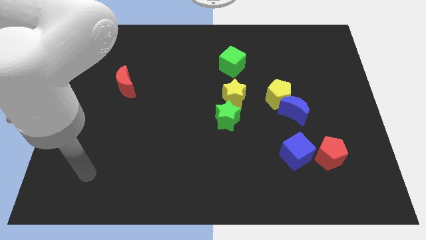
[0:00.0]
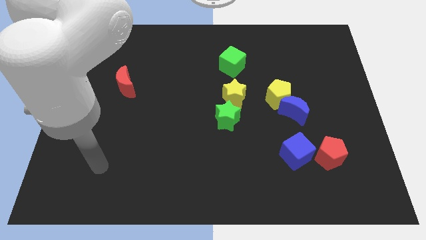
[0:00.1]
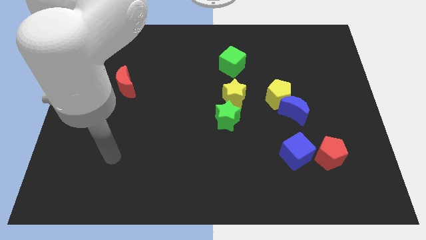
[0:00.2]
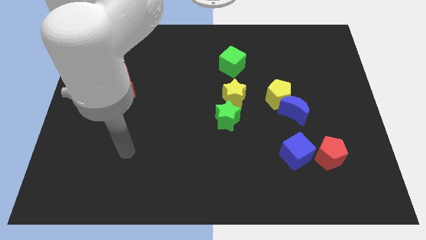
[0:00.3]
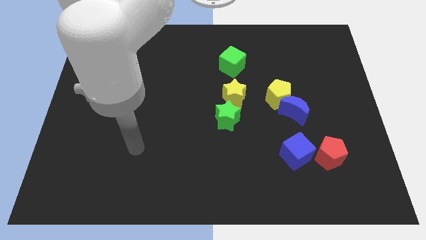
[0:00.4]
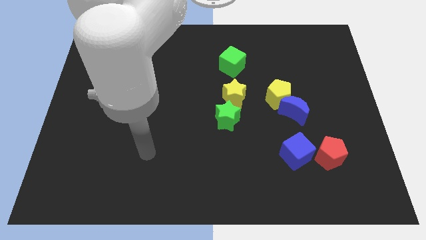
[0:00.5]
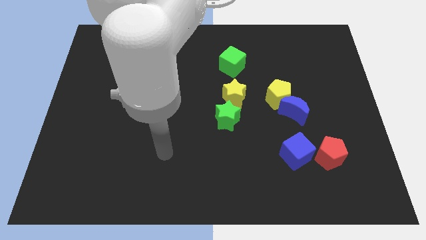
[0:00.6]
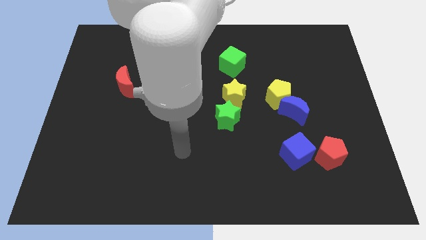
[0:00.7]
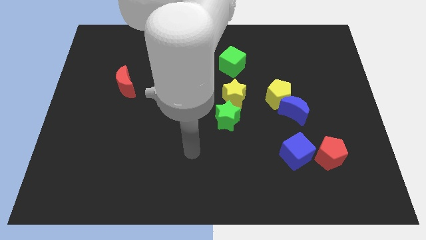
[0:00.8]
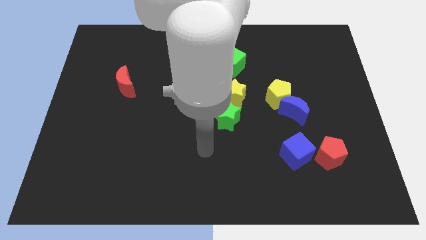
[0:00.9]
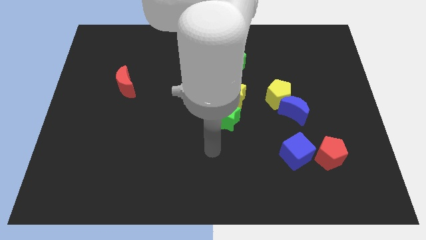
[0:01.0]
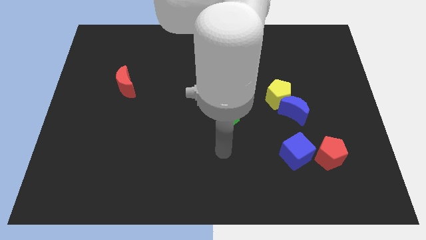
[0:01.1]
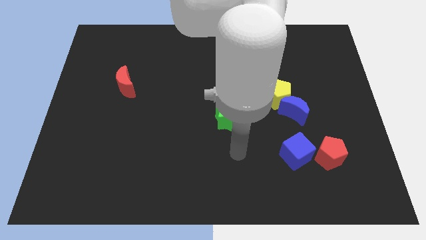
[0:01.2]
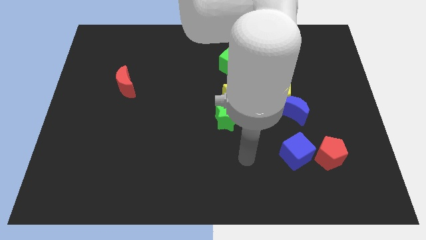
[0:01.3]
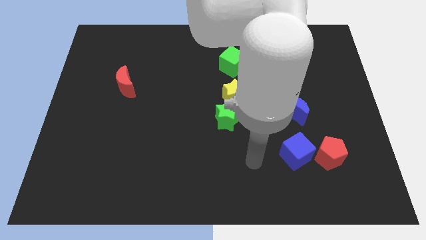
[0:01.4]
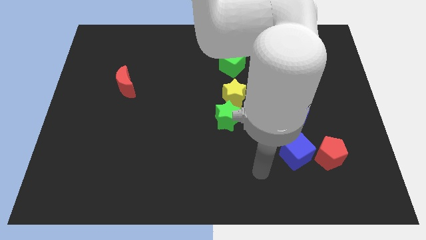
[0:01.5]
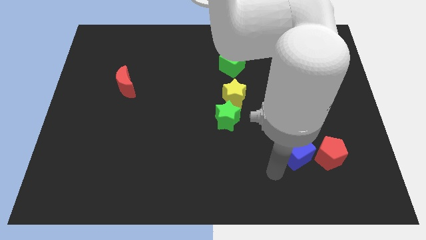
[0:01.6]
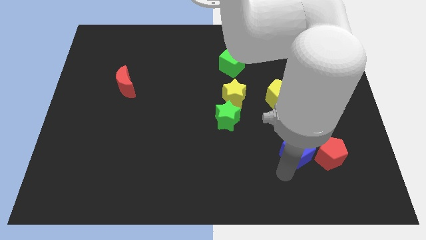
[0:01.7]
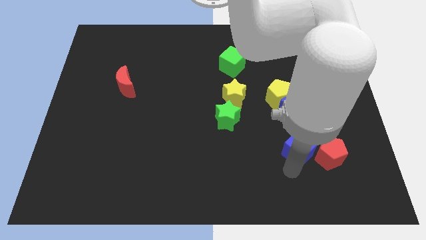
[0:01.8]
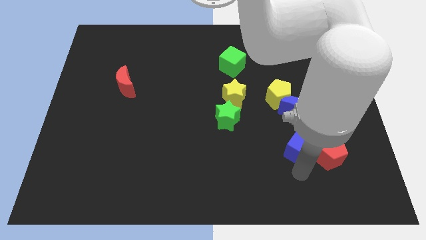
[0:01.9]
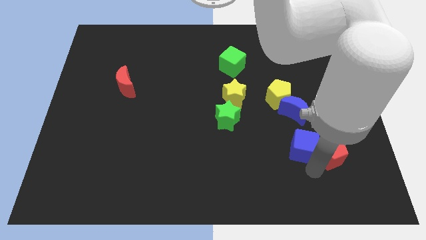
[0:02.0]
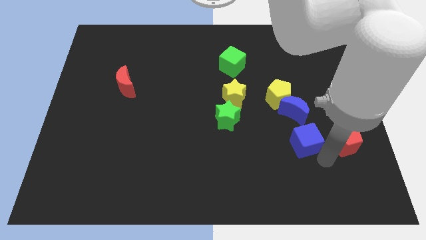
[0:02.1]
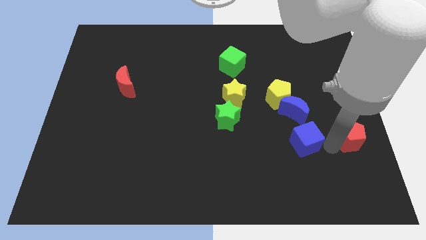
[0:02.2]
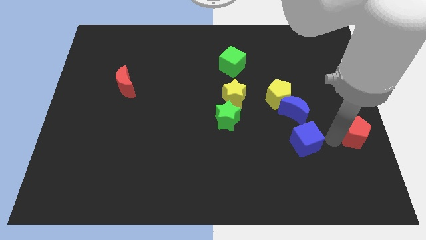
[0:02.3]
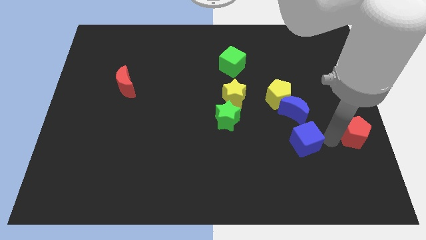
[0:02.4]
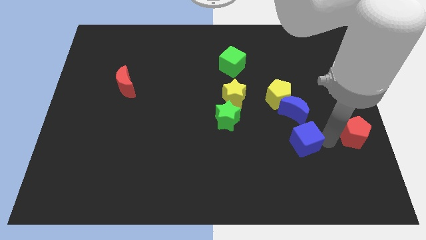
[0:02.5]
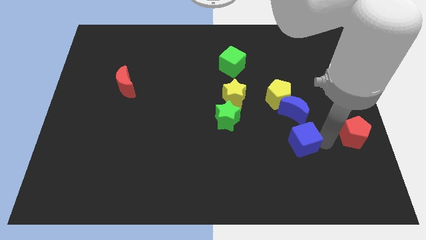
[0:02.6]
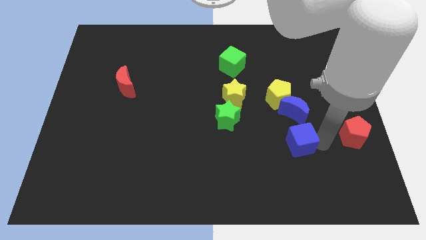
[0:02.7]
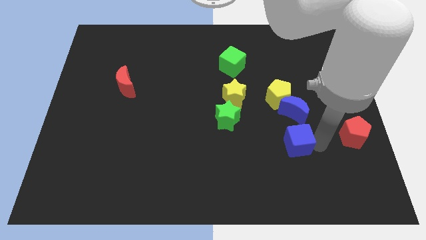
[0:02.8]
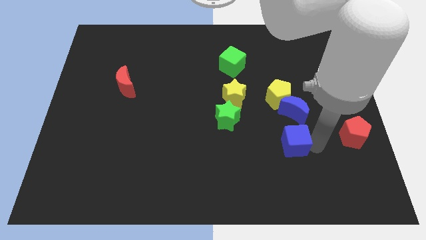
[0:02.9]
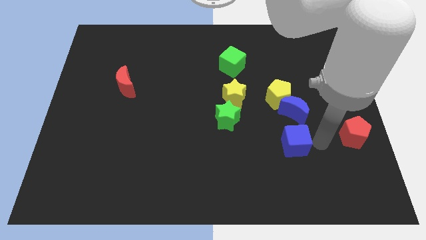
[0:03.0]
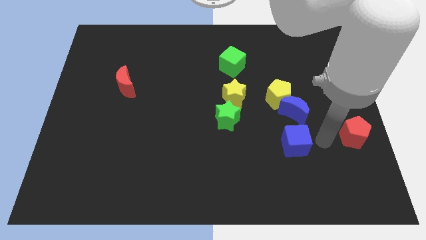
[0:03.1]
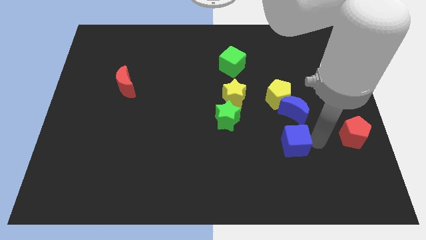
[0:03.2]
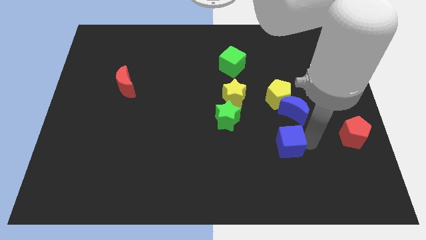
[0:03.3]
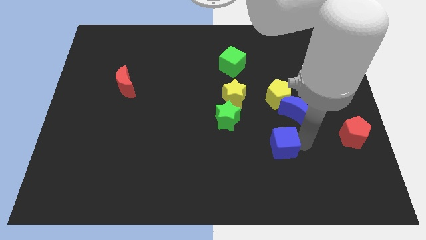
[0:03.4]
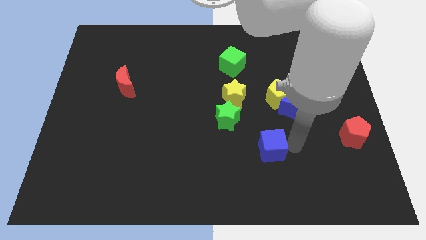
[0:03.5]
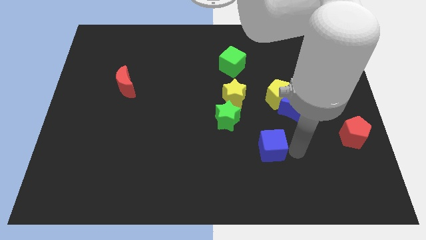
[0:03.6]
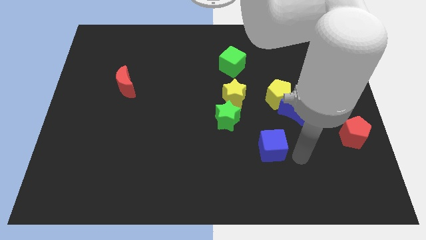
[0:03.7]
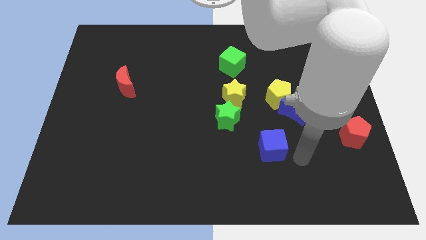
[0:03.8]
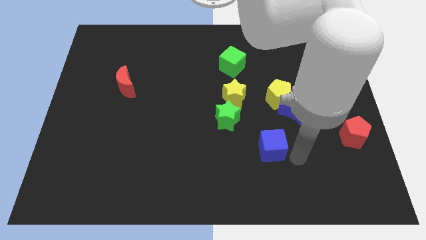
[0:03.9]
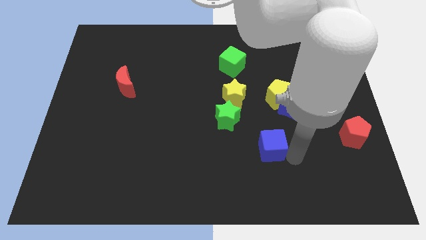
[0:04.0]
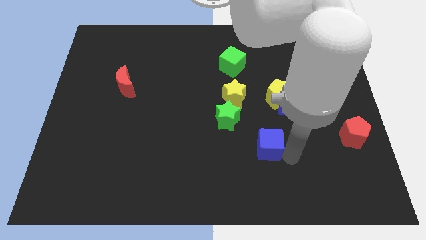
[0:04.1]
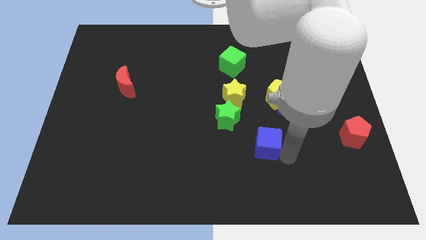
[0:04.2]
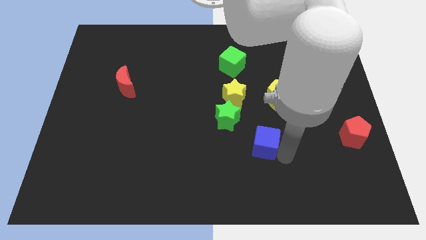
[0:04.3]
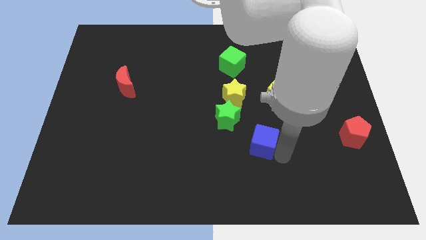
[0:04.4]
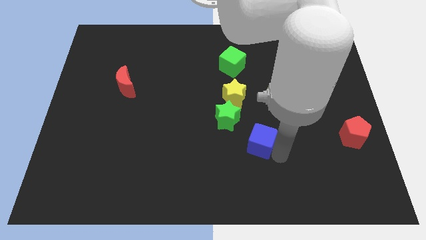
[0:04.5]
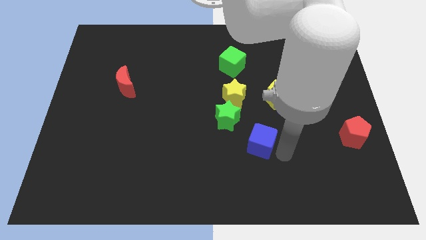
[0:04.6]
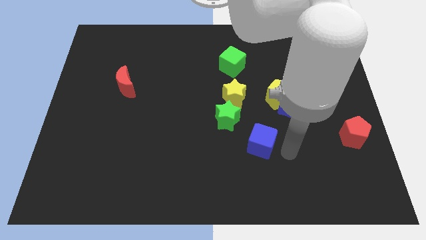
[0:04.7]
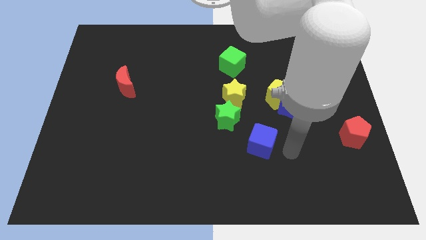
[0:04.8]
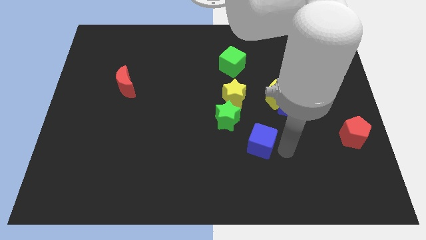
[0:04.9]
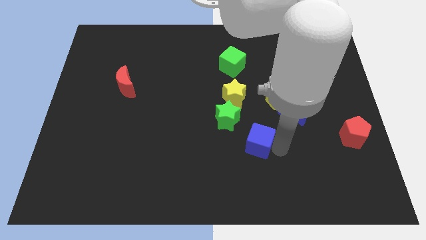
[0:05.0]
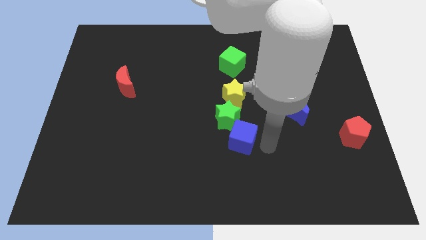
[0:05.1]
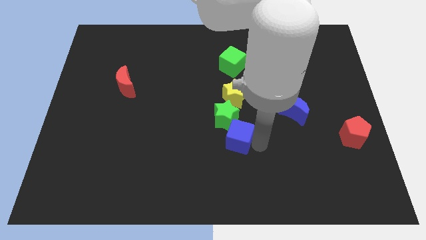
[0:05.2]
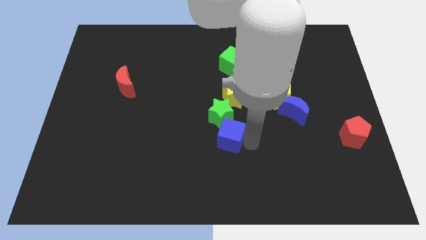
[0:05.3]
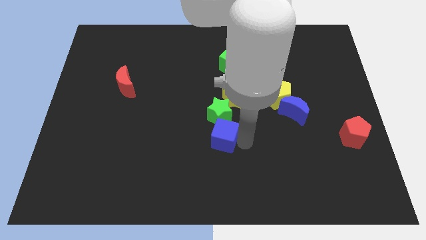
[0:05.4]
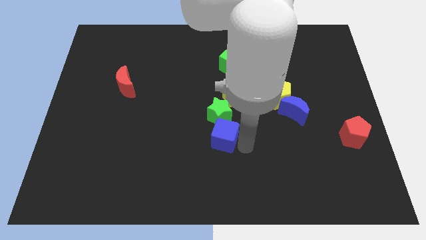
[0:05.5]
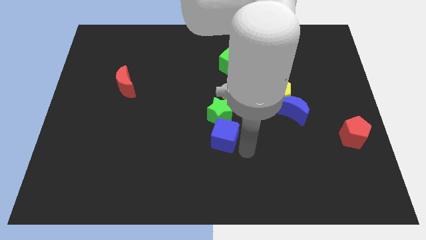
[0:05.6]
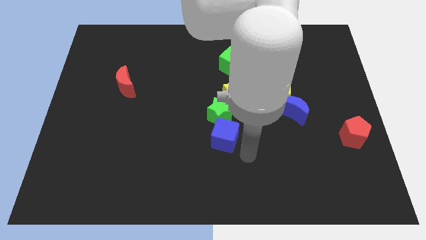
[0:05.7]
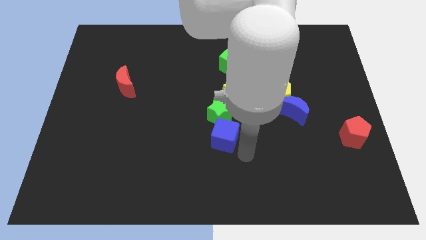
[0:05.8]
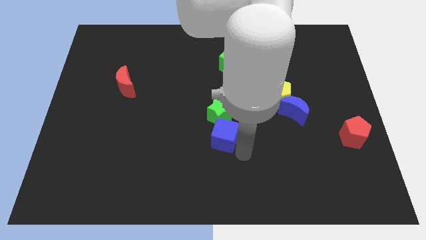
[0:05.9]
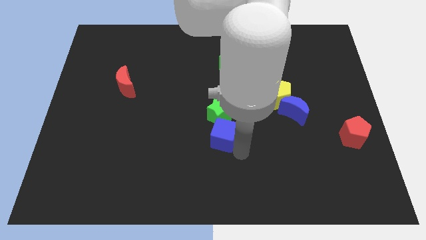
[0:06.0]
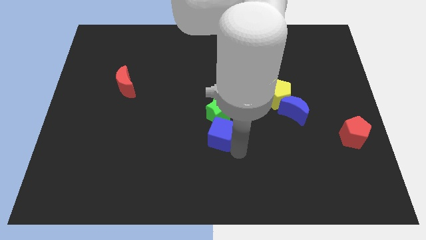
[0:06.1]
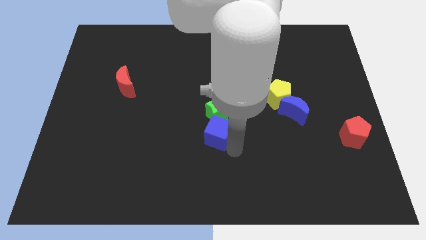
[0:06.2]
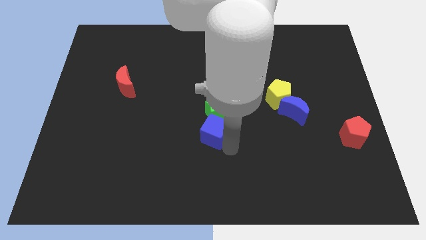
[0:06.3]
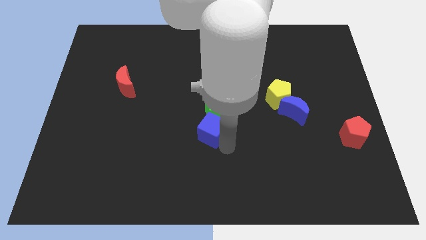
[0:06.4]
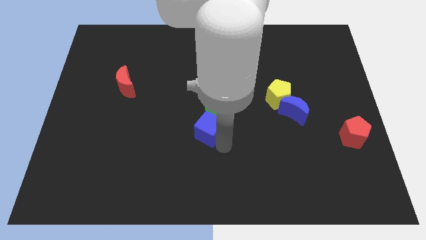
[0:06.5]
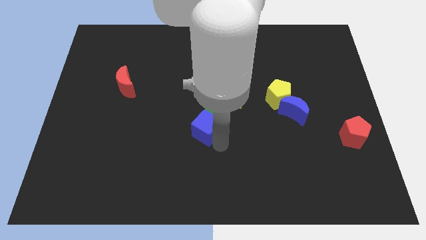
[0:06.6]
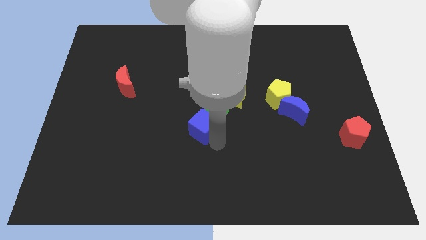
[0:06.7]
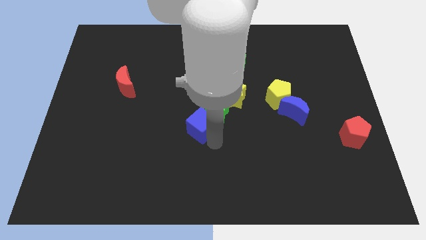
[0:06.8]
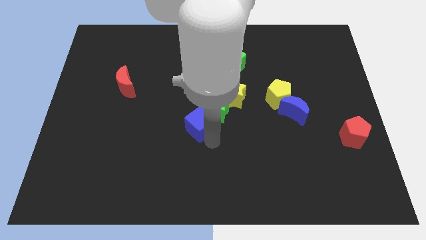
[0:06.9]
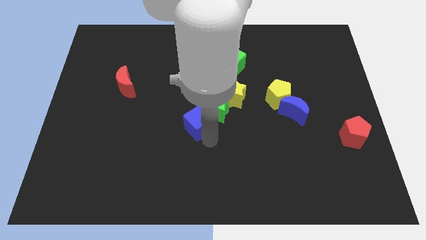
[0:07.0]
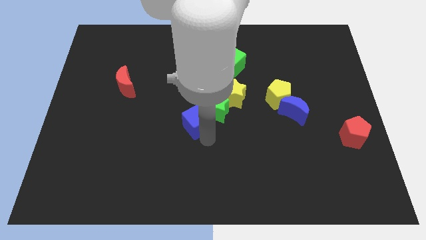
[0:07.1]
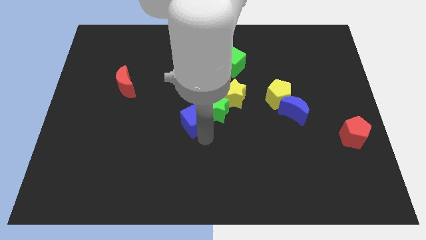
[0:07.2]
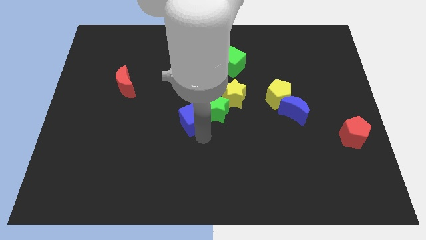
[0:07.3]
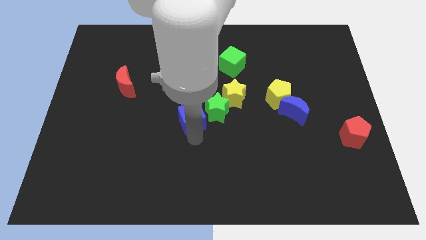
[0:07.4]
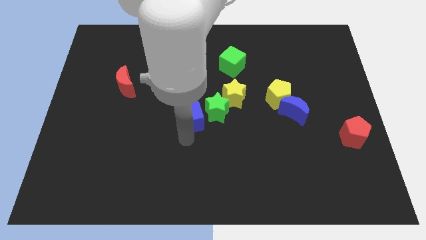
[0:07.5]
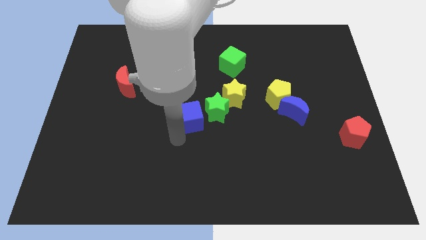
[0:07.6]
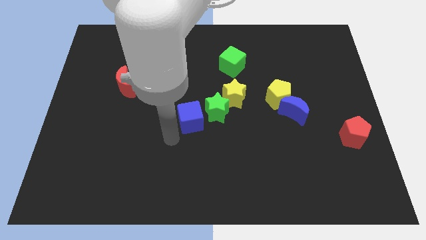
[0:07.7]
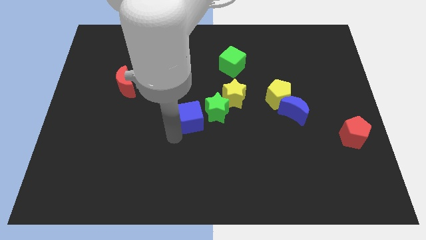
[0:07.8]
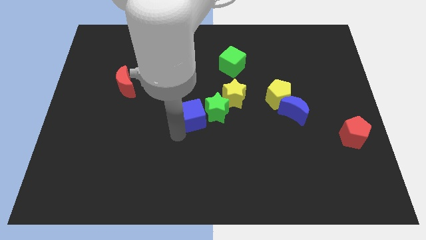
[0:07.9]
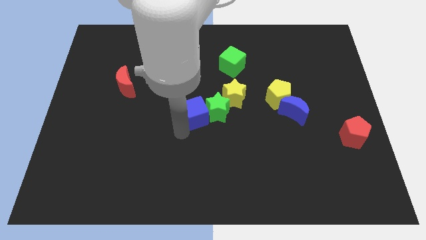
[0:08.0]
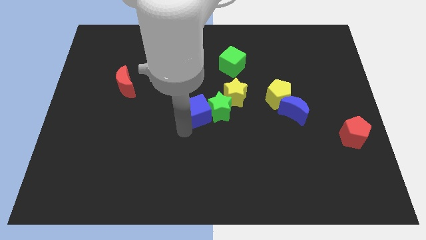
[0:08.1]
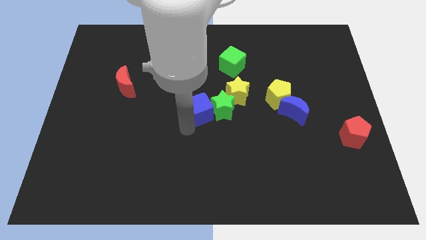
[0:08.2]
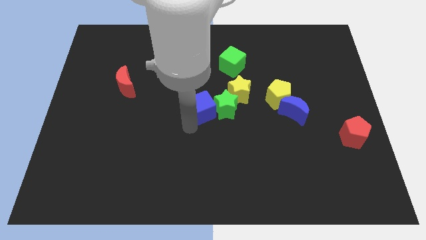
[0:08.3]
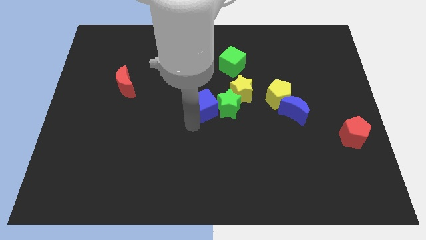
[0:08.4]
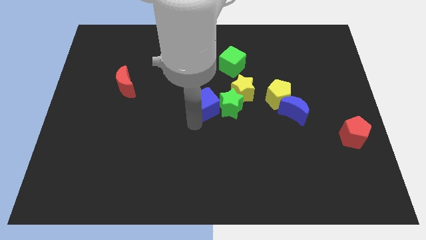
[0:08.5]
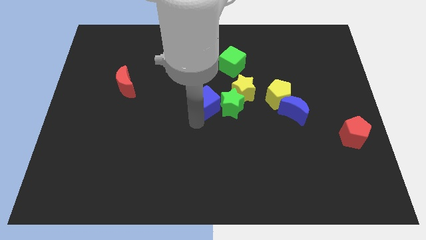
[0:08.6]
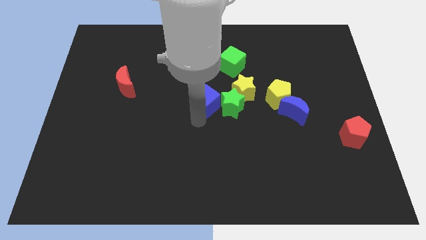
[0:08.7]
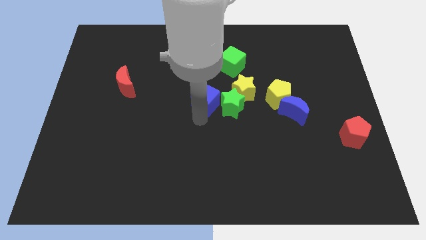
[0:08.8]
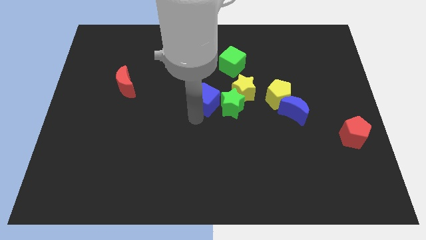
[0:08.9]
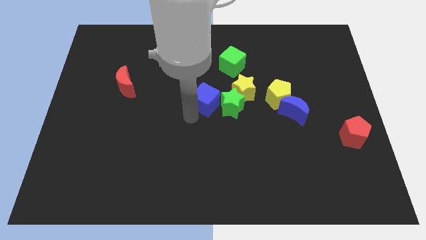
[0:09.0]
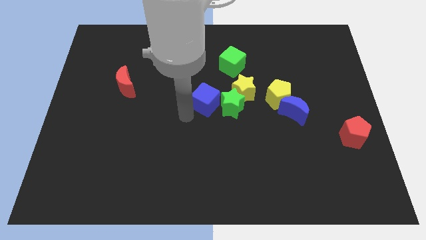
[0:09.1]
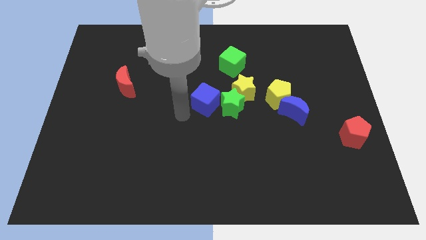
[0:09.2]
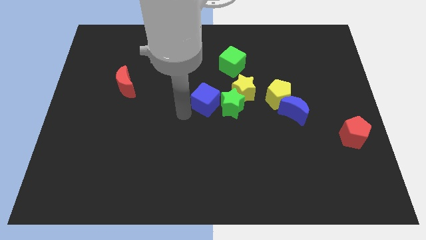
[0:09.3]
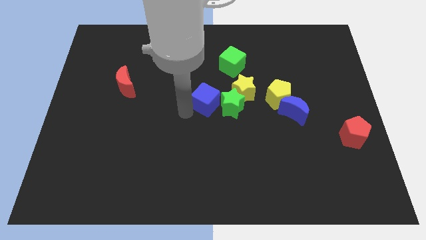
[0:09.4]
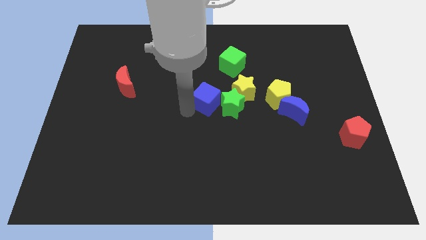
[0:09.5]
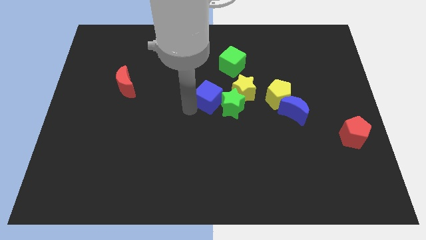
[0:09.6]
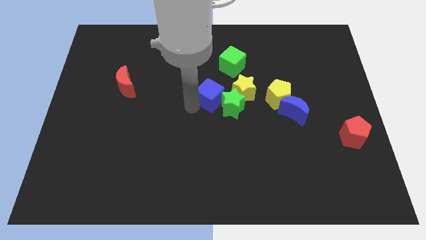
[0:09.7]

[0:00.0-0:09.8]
put the blue cube left of the yellow pentagon
